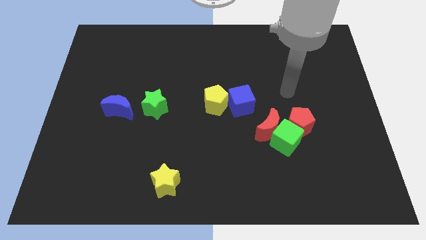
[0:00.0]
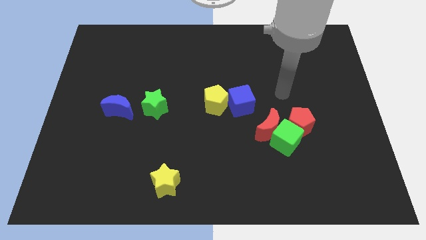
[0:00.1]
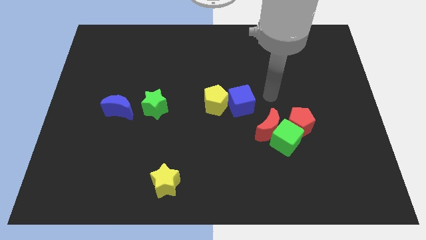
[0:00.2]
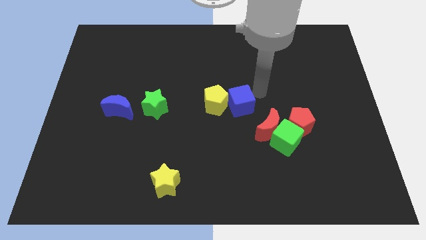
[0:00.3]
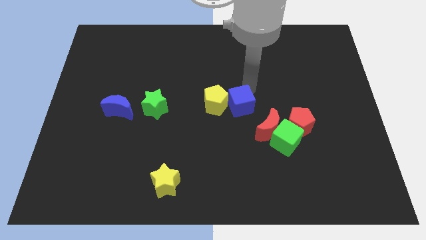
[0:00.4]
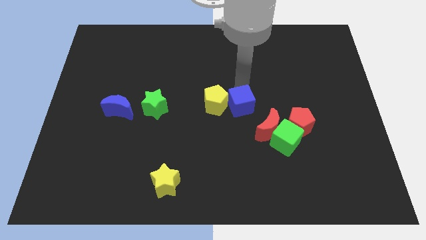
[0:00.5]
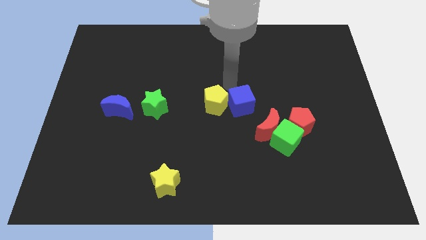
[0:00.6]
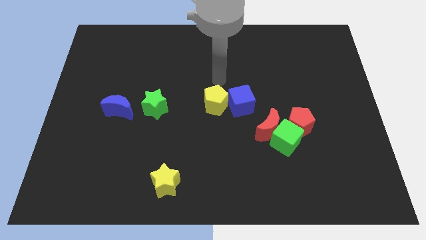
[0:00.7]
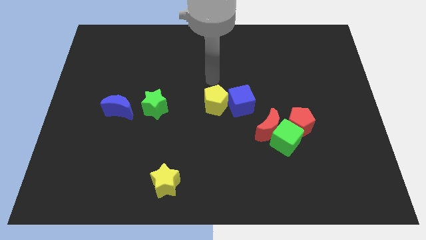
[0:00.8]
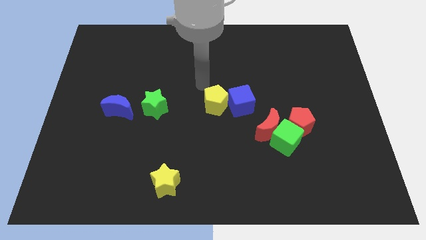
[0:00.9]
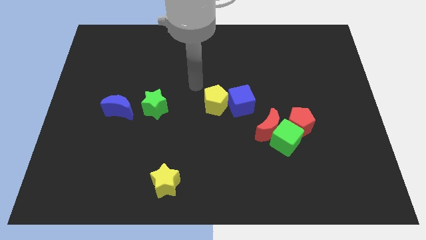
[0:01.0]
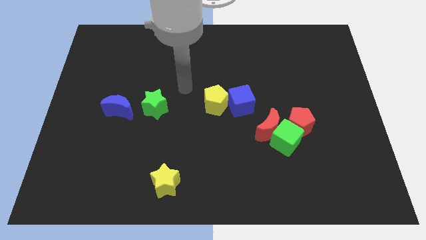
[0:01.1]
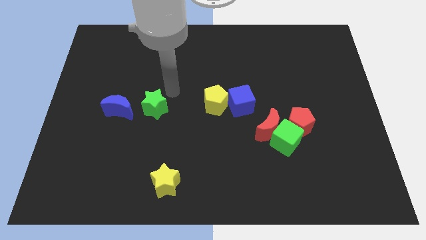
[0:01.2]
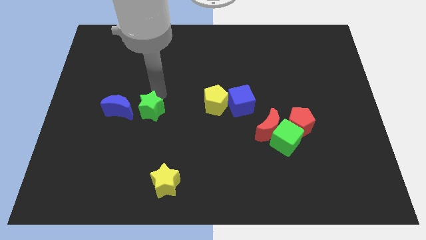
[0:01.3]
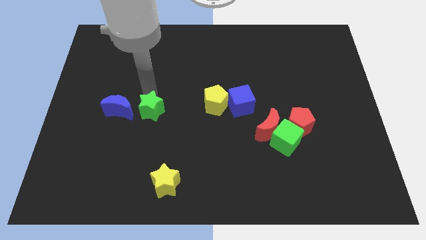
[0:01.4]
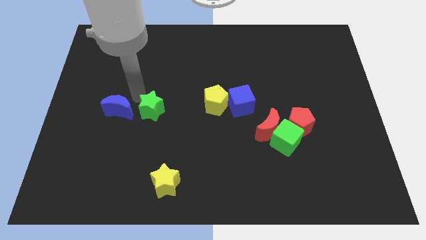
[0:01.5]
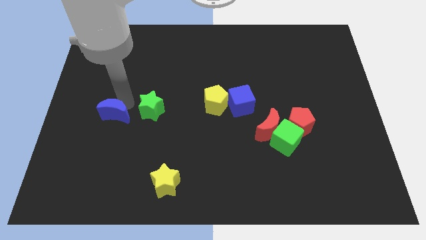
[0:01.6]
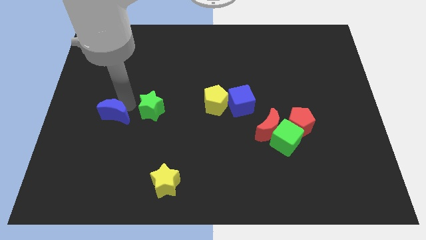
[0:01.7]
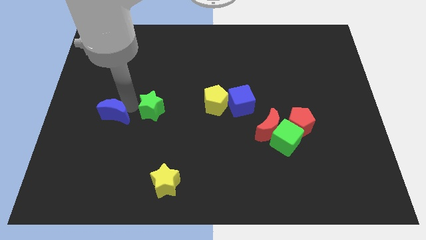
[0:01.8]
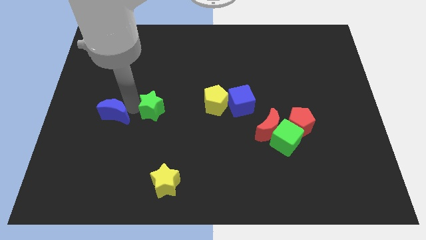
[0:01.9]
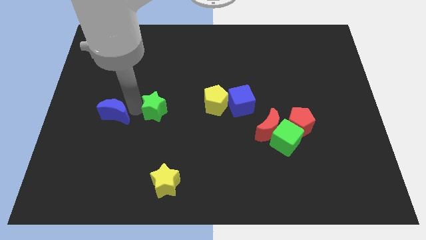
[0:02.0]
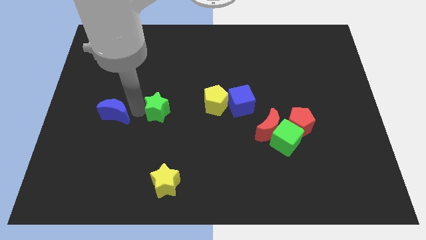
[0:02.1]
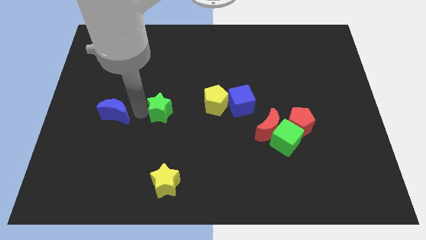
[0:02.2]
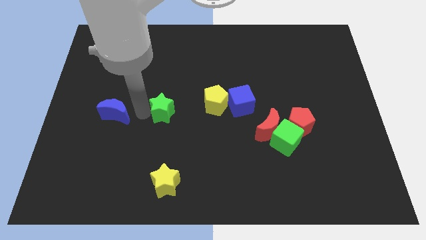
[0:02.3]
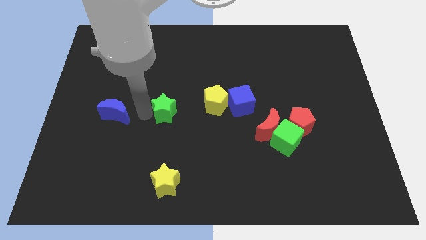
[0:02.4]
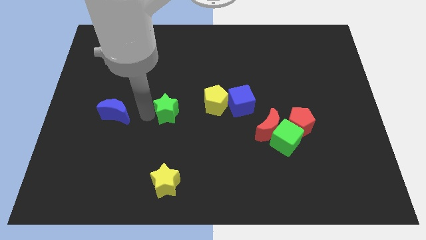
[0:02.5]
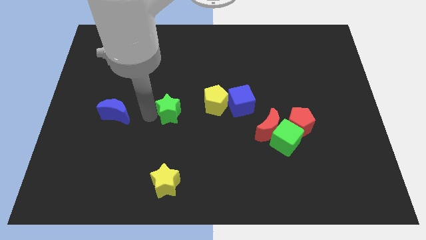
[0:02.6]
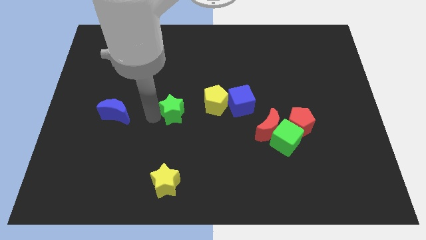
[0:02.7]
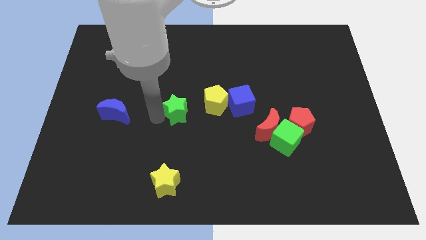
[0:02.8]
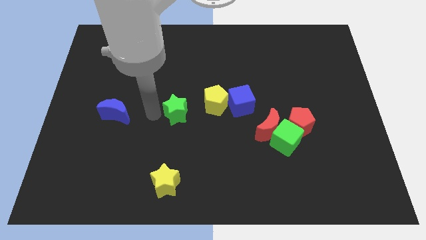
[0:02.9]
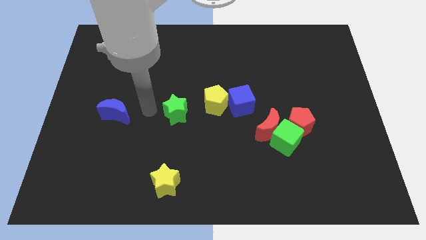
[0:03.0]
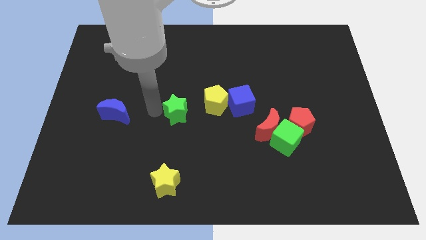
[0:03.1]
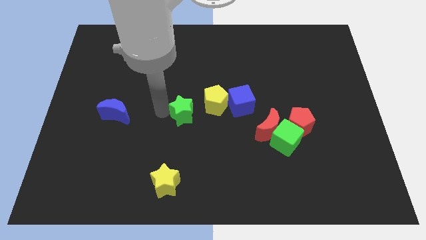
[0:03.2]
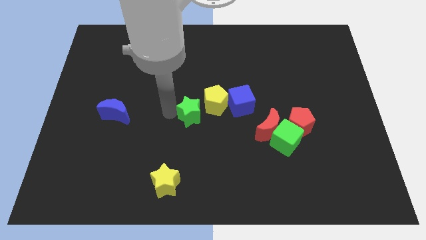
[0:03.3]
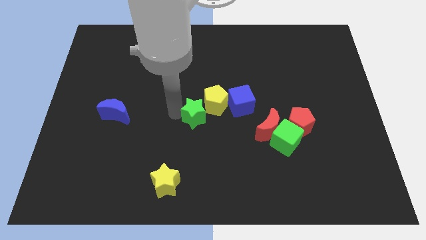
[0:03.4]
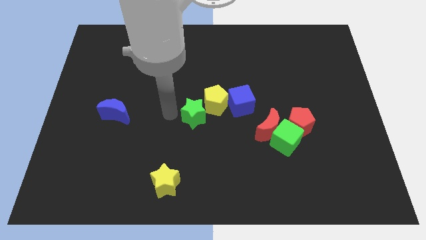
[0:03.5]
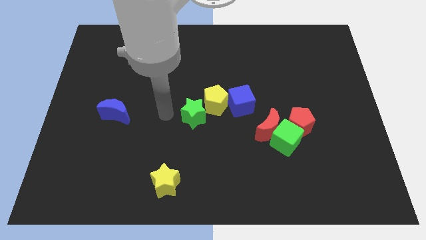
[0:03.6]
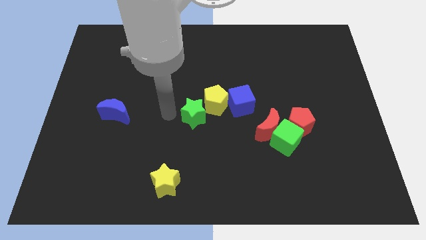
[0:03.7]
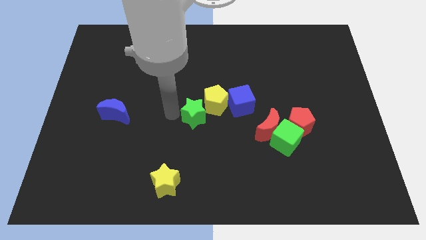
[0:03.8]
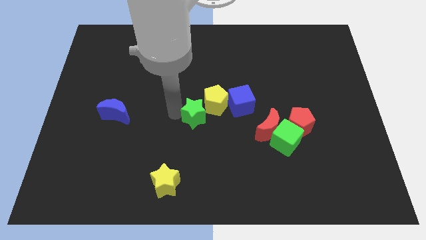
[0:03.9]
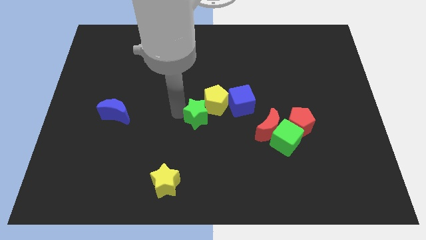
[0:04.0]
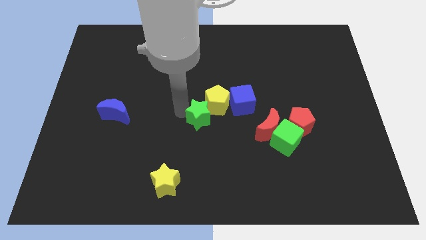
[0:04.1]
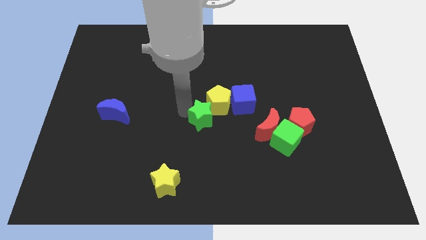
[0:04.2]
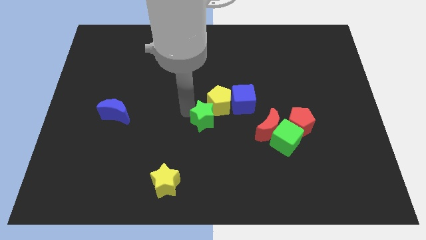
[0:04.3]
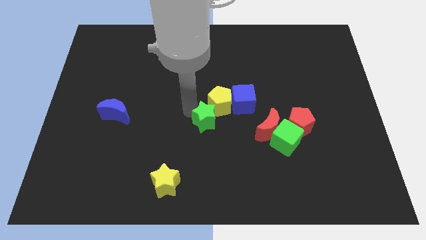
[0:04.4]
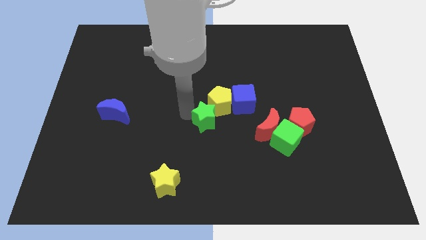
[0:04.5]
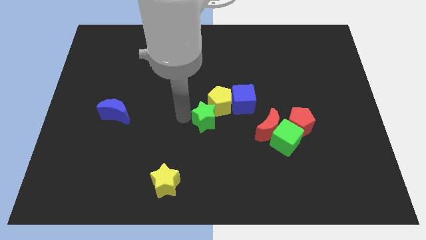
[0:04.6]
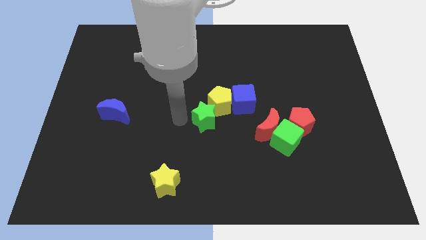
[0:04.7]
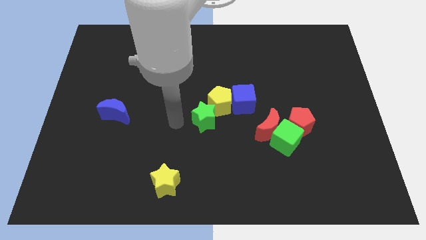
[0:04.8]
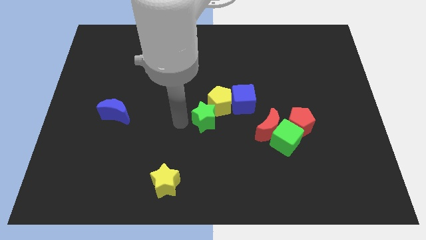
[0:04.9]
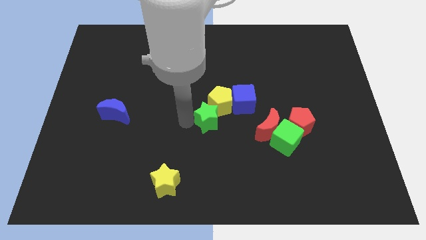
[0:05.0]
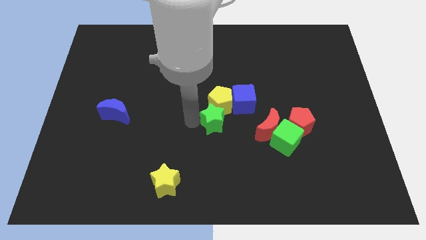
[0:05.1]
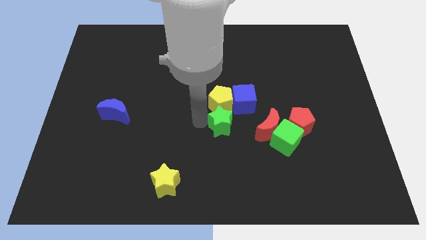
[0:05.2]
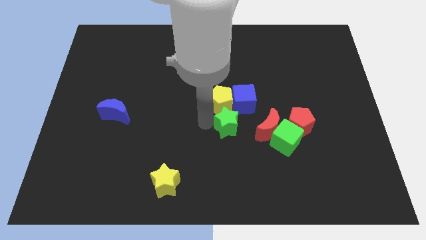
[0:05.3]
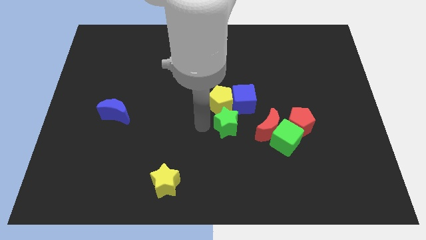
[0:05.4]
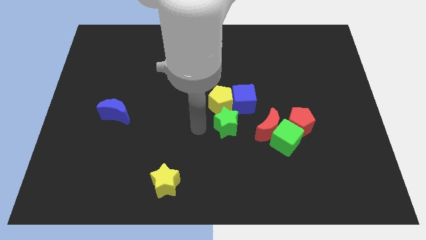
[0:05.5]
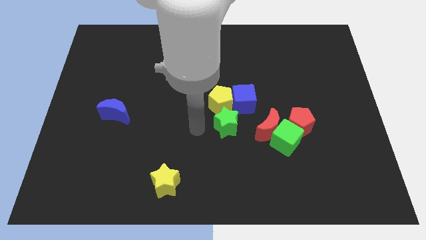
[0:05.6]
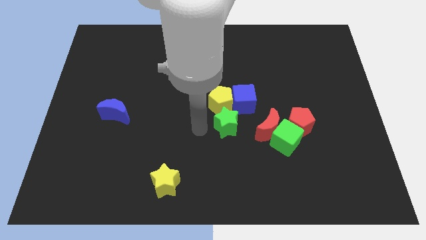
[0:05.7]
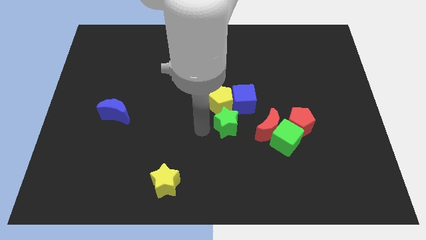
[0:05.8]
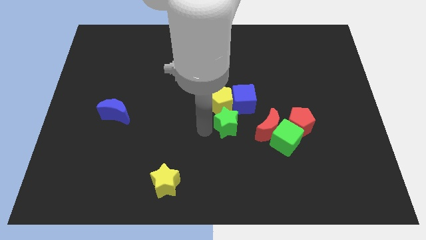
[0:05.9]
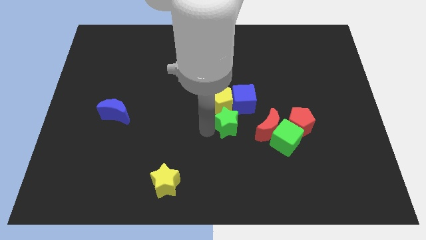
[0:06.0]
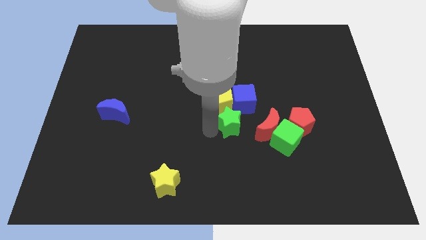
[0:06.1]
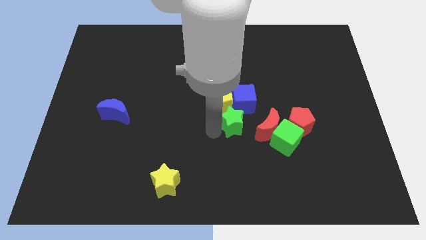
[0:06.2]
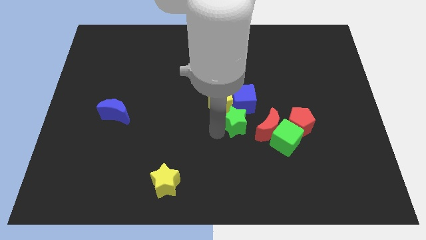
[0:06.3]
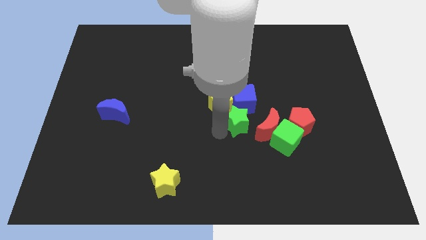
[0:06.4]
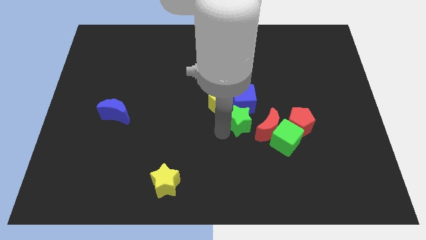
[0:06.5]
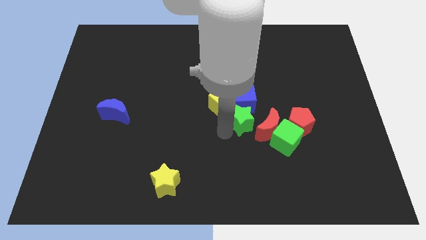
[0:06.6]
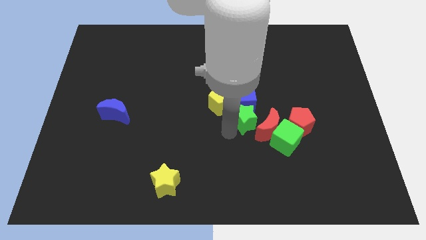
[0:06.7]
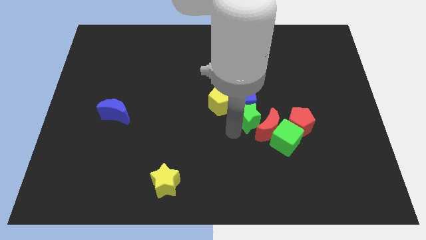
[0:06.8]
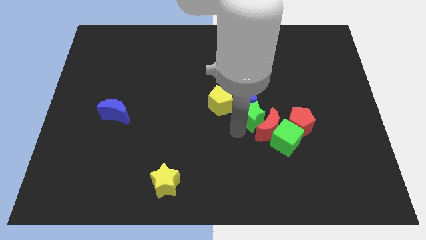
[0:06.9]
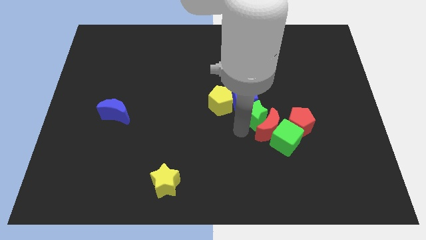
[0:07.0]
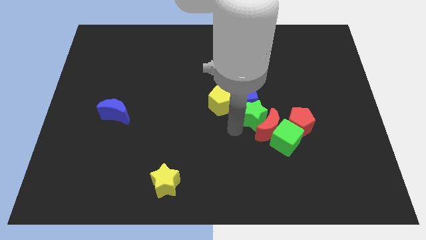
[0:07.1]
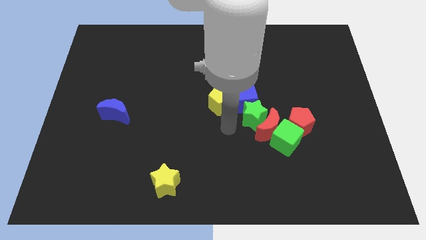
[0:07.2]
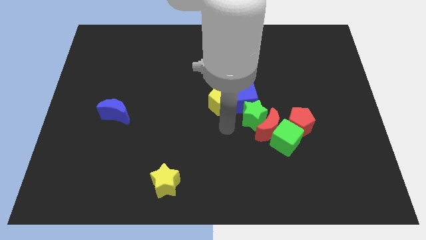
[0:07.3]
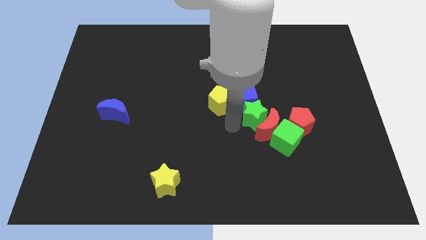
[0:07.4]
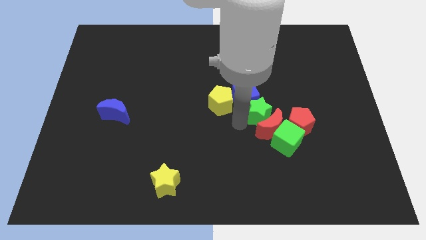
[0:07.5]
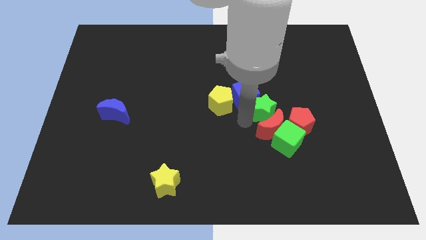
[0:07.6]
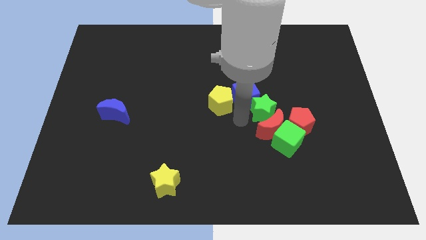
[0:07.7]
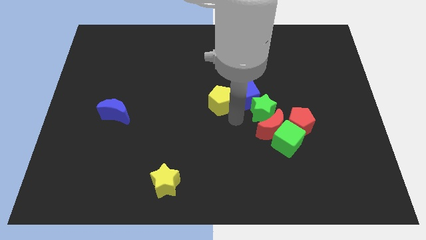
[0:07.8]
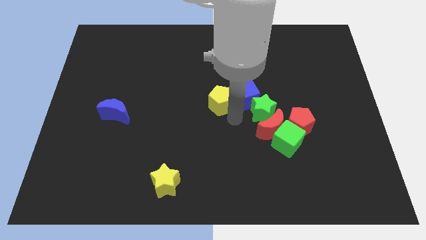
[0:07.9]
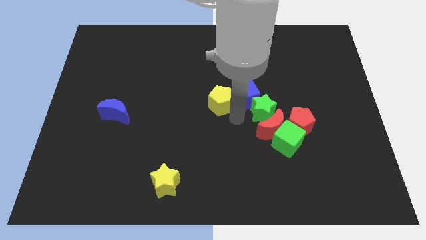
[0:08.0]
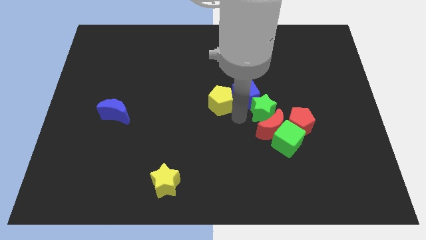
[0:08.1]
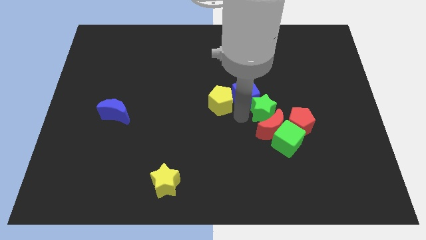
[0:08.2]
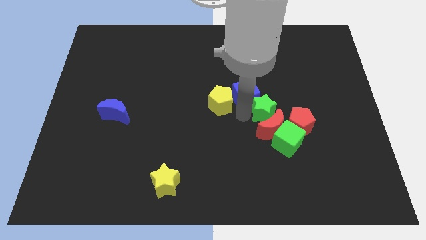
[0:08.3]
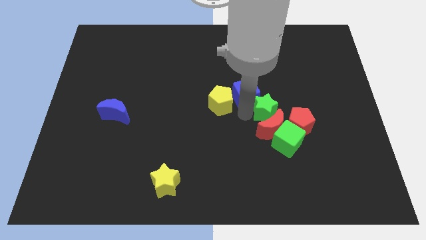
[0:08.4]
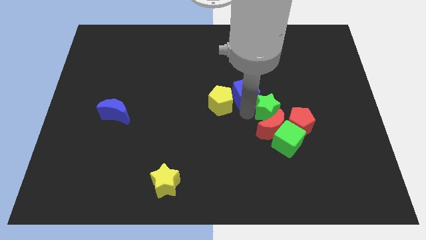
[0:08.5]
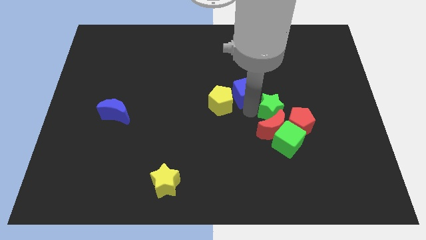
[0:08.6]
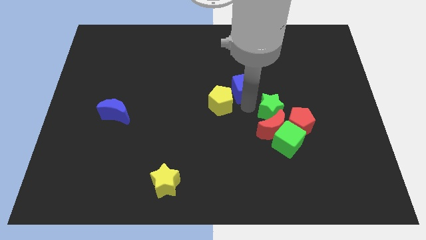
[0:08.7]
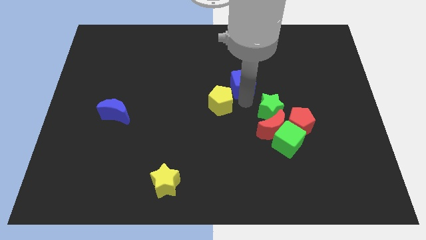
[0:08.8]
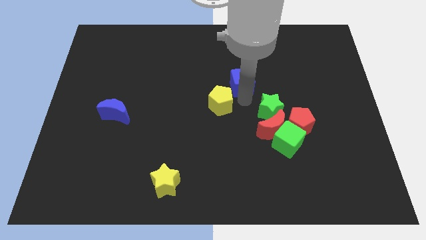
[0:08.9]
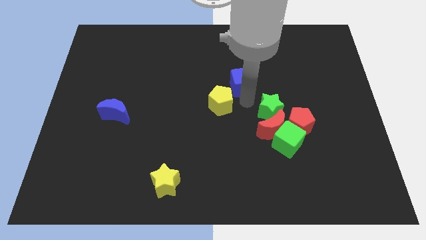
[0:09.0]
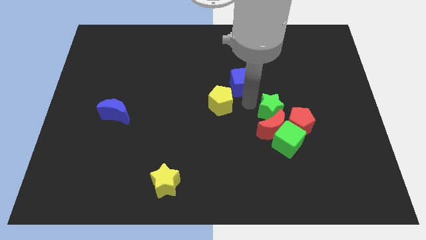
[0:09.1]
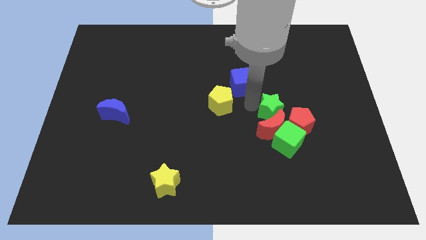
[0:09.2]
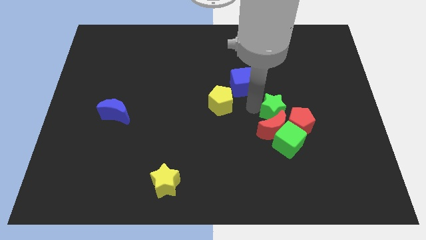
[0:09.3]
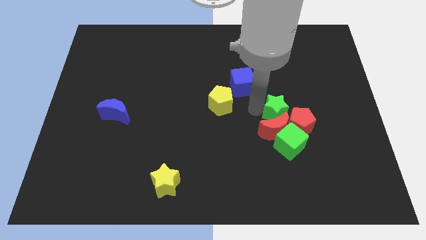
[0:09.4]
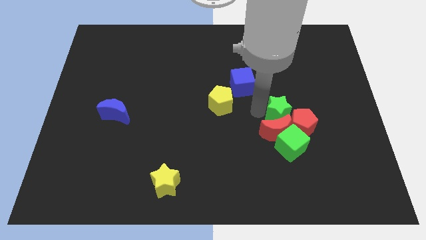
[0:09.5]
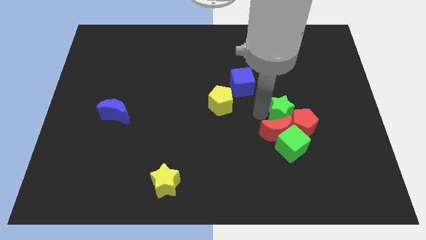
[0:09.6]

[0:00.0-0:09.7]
put the green star next to the red pentagon
